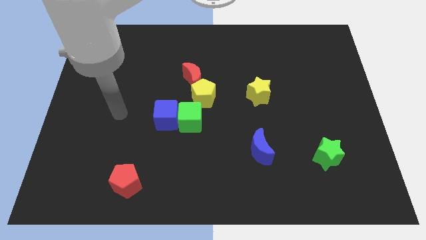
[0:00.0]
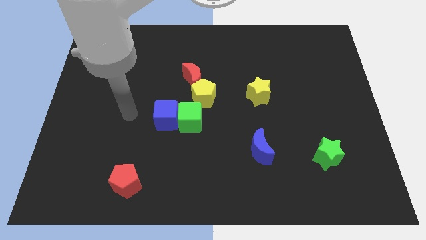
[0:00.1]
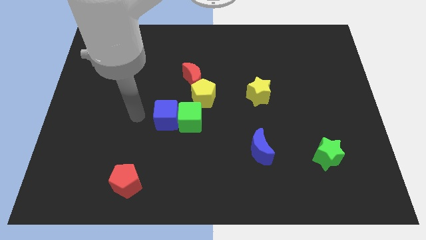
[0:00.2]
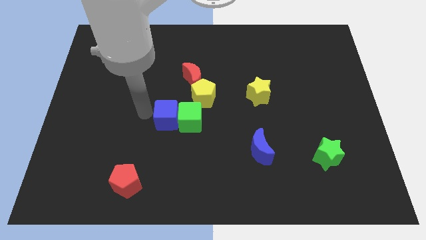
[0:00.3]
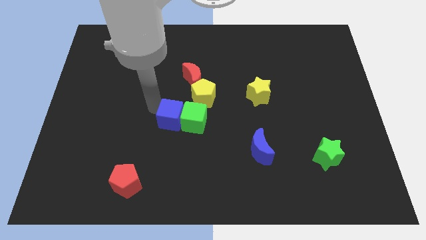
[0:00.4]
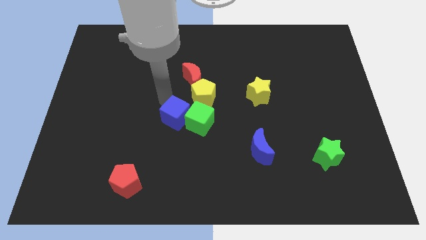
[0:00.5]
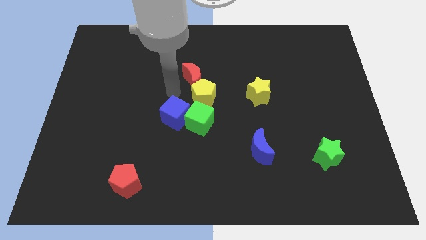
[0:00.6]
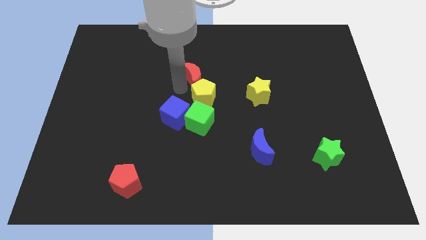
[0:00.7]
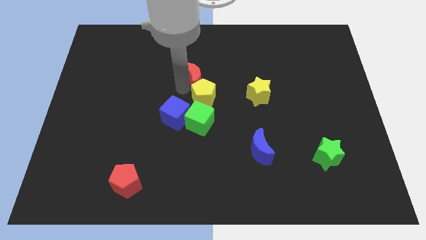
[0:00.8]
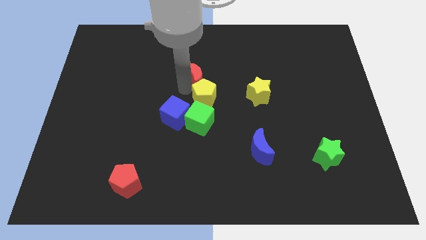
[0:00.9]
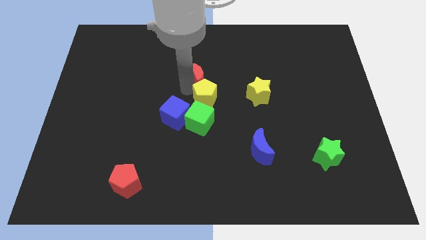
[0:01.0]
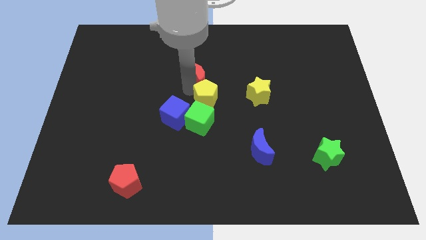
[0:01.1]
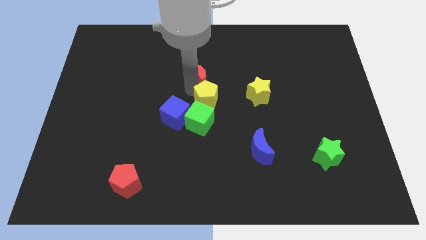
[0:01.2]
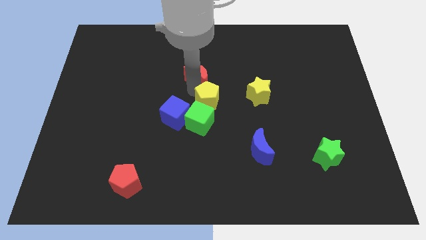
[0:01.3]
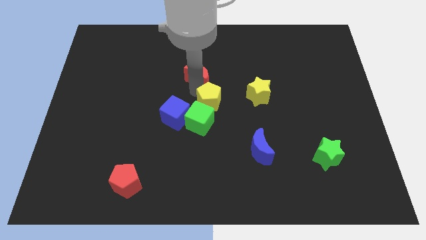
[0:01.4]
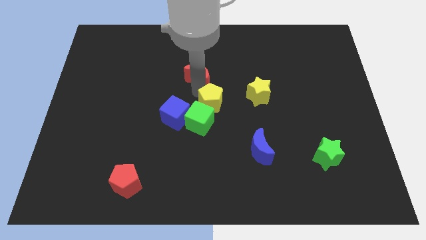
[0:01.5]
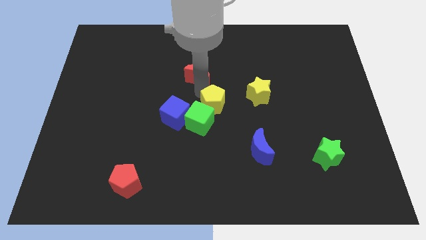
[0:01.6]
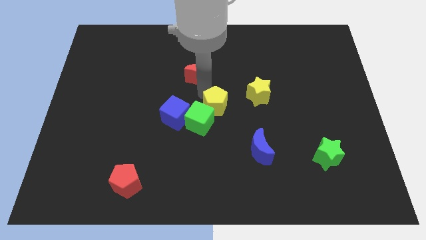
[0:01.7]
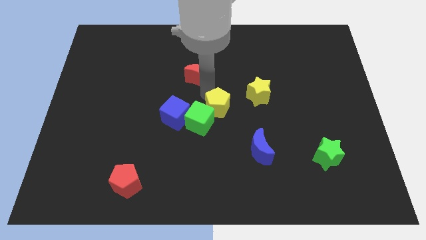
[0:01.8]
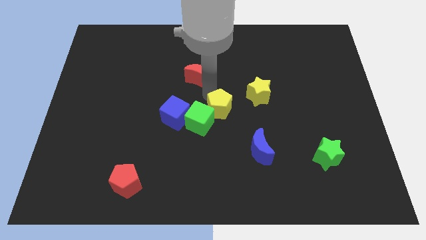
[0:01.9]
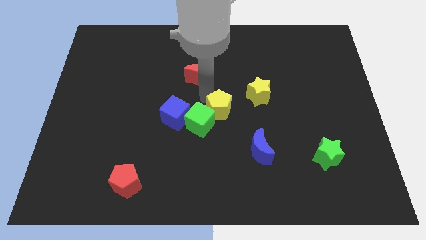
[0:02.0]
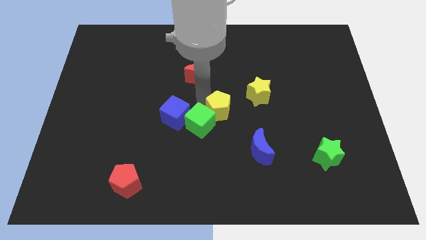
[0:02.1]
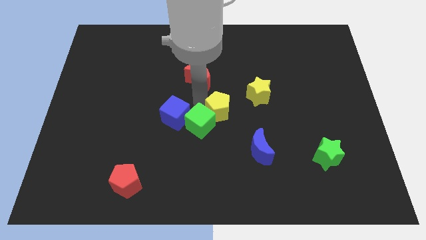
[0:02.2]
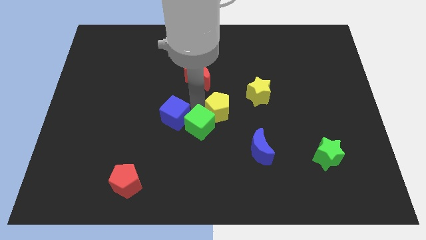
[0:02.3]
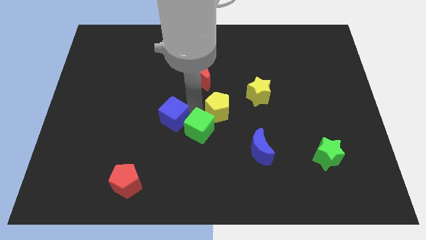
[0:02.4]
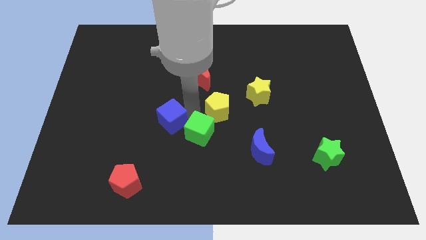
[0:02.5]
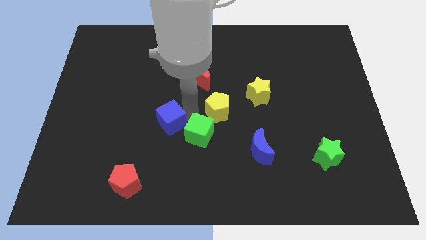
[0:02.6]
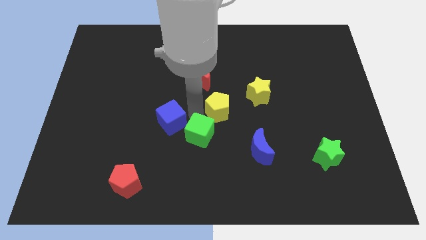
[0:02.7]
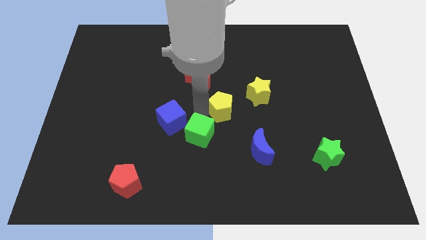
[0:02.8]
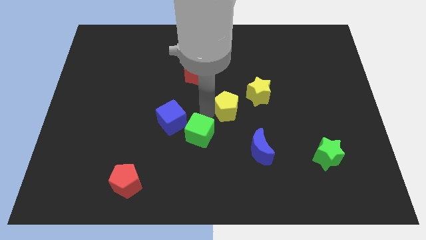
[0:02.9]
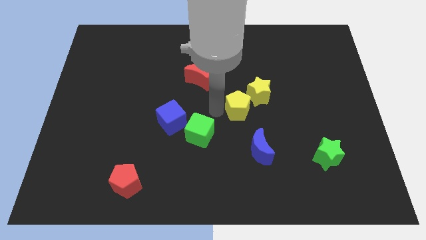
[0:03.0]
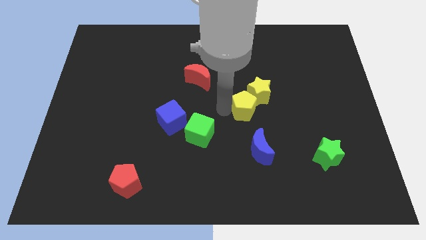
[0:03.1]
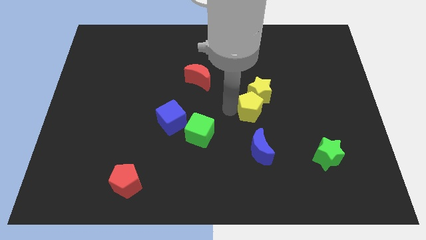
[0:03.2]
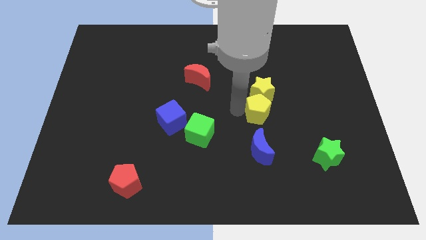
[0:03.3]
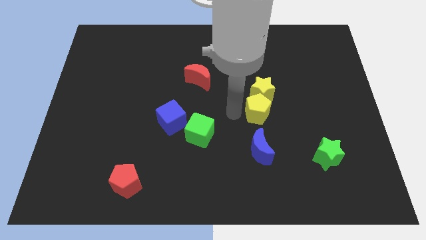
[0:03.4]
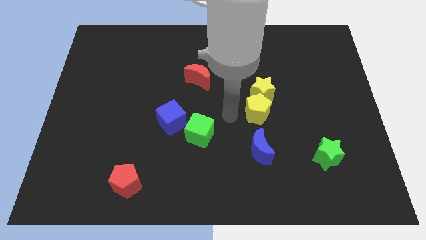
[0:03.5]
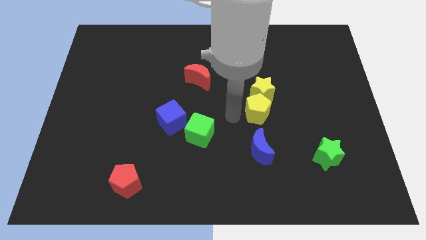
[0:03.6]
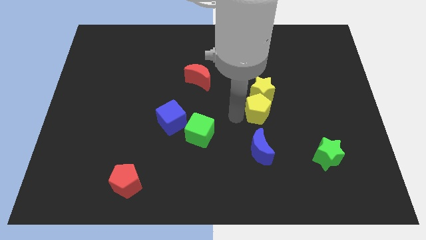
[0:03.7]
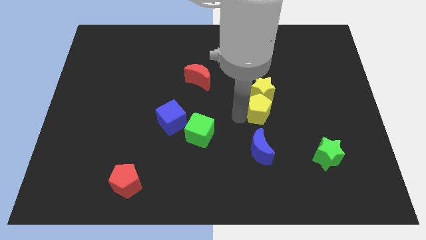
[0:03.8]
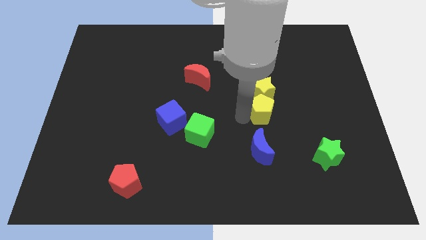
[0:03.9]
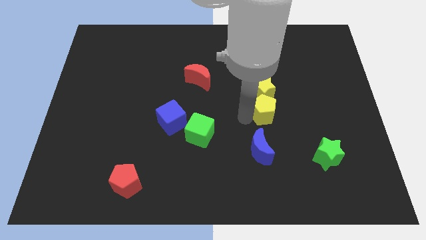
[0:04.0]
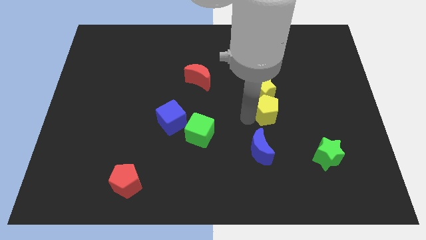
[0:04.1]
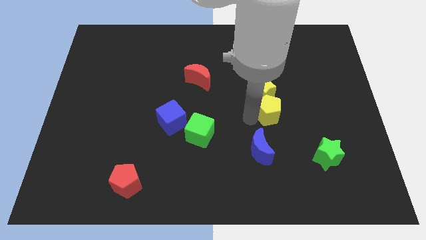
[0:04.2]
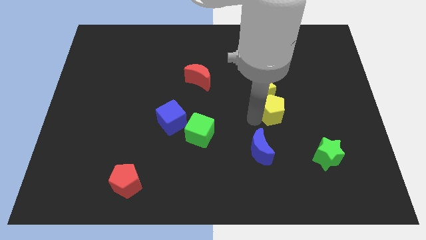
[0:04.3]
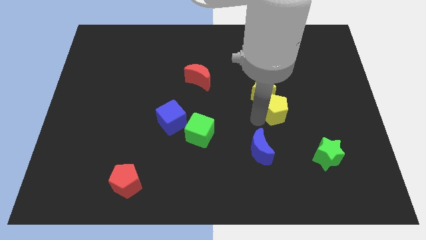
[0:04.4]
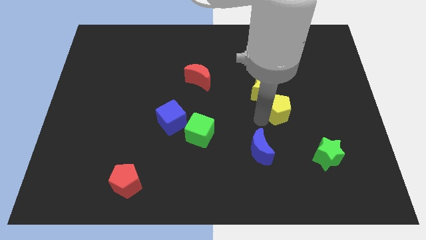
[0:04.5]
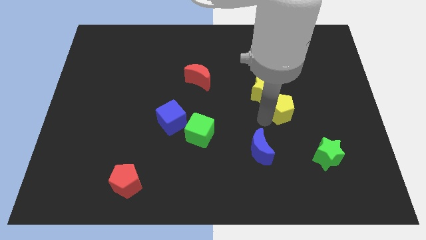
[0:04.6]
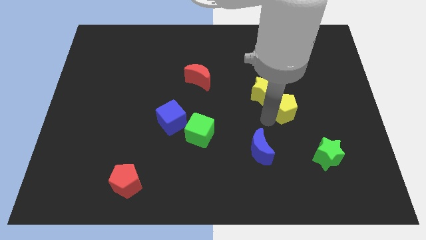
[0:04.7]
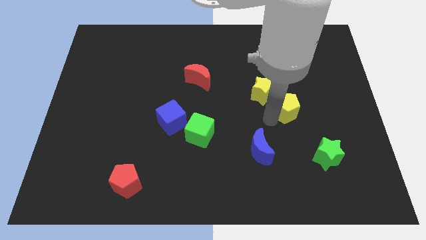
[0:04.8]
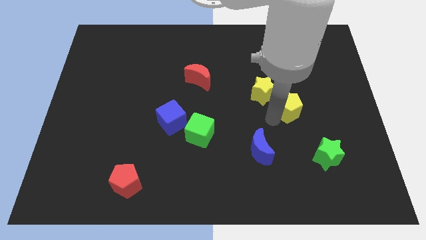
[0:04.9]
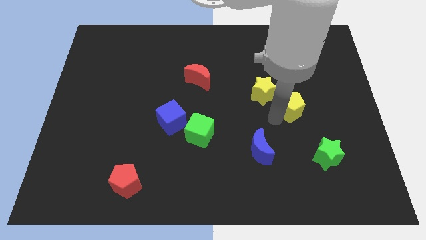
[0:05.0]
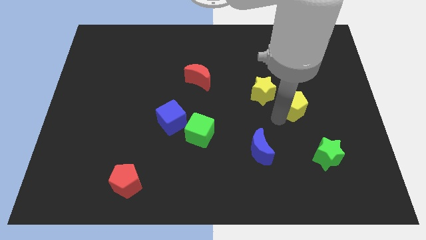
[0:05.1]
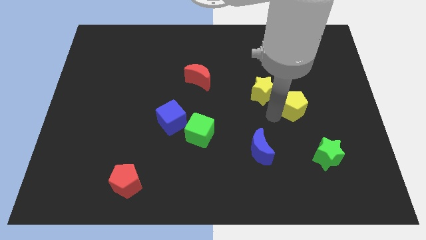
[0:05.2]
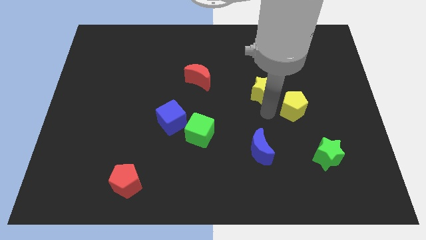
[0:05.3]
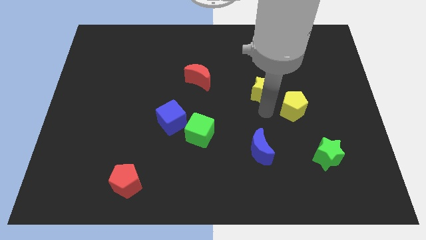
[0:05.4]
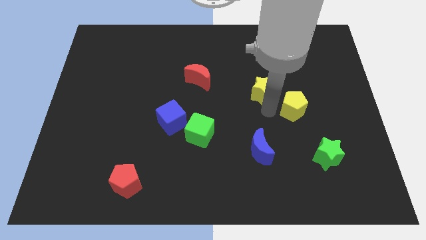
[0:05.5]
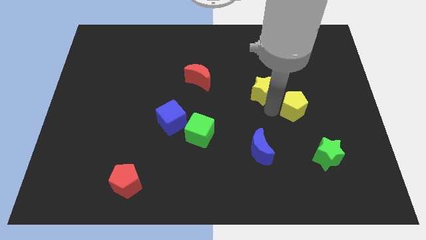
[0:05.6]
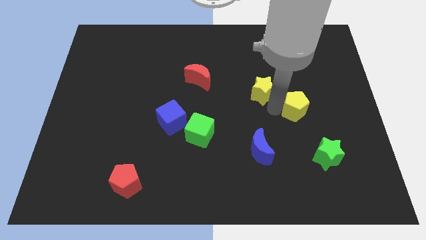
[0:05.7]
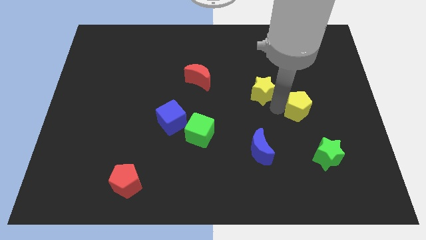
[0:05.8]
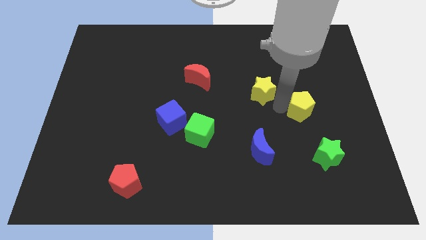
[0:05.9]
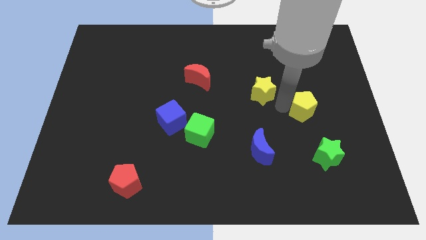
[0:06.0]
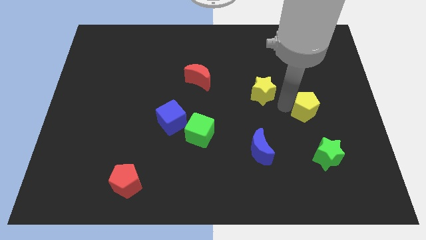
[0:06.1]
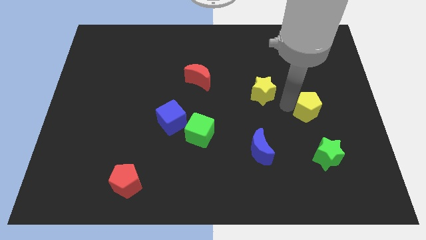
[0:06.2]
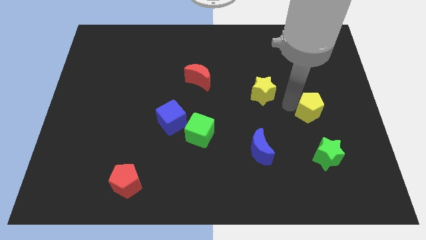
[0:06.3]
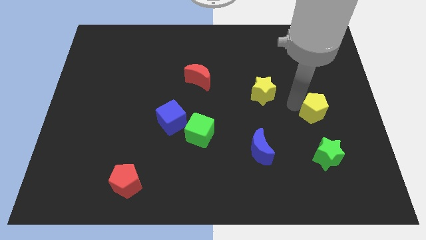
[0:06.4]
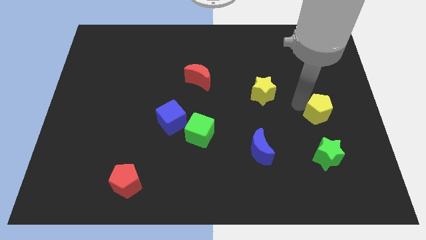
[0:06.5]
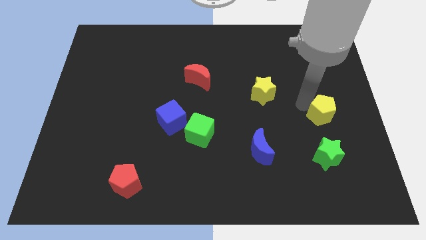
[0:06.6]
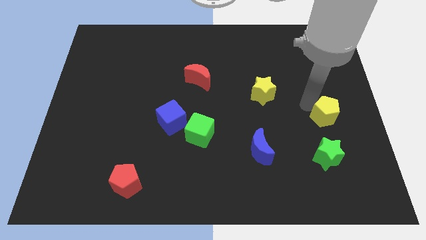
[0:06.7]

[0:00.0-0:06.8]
put the yellow pentagon to the right side
